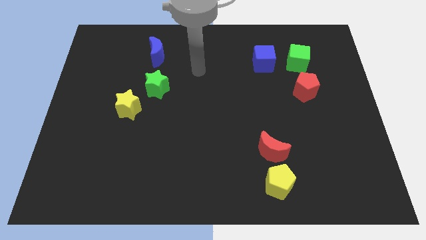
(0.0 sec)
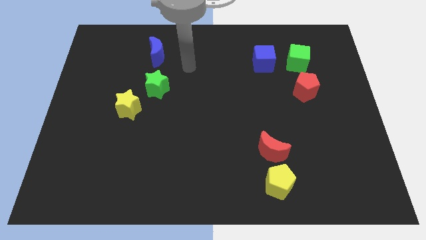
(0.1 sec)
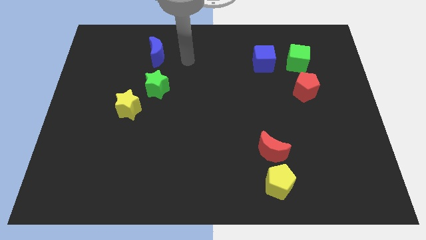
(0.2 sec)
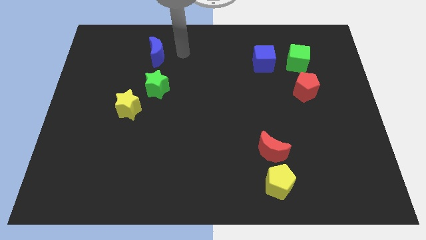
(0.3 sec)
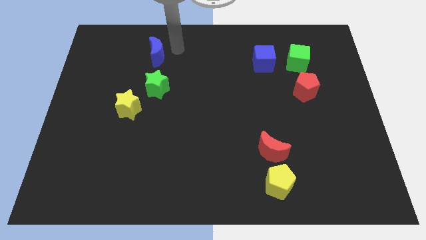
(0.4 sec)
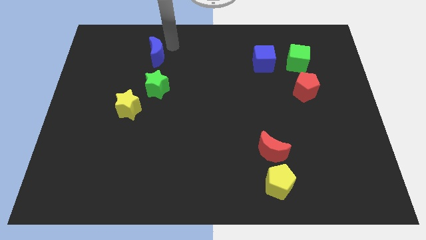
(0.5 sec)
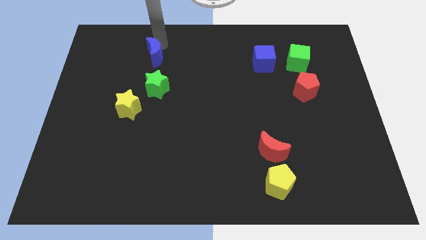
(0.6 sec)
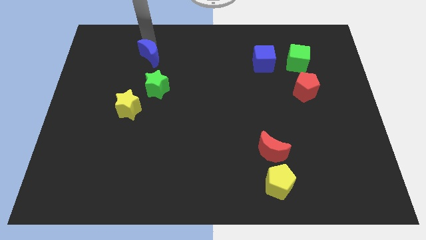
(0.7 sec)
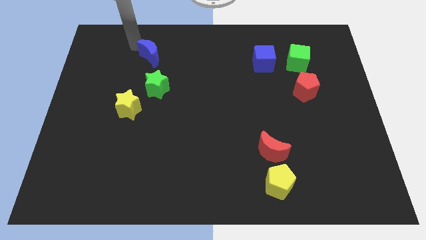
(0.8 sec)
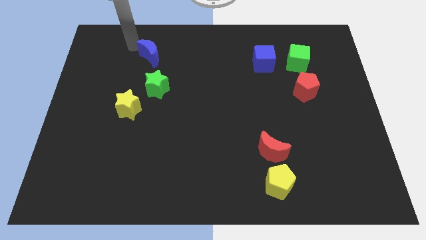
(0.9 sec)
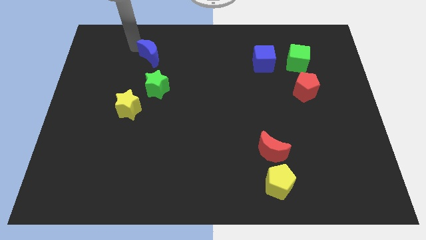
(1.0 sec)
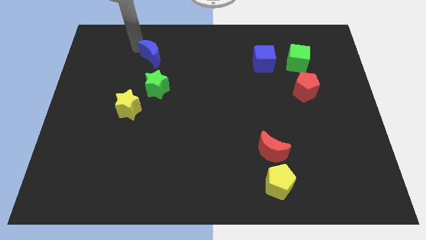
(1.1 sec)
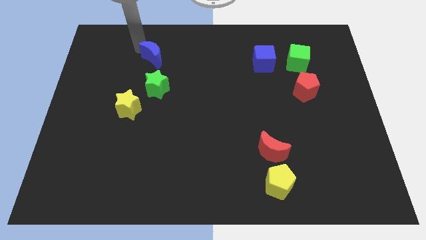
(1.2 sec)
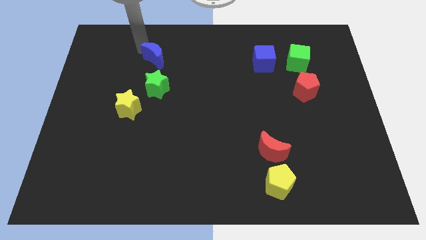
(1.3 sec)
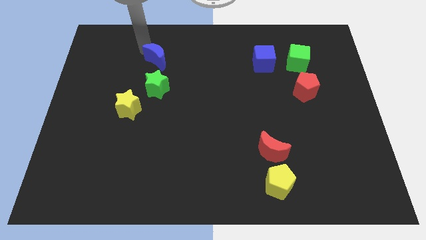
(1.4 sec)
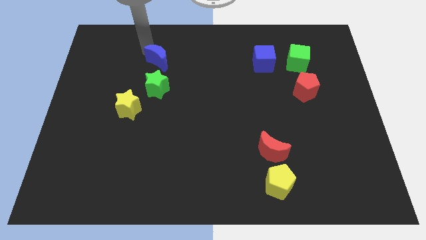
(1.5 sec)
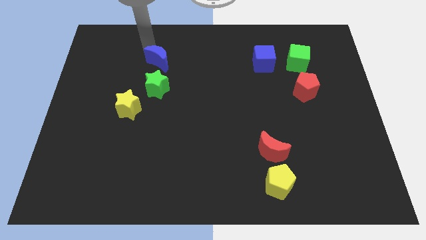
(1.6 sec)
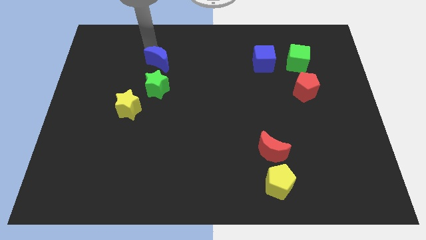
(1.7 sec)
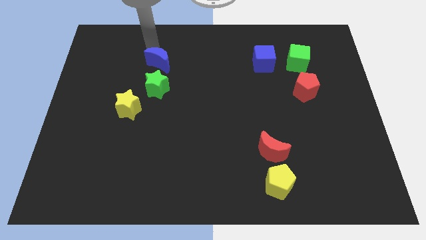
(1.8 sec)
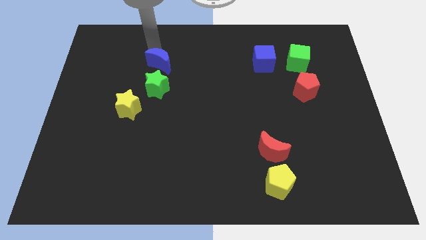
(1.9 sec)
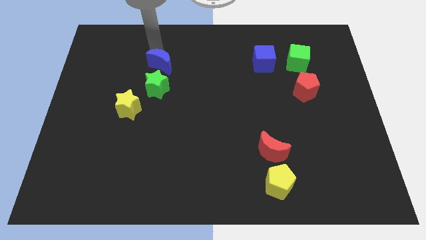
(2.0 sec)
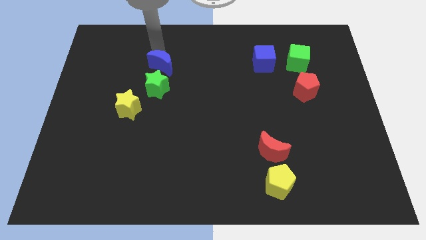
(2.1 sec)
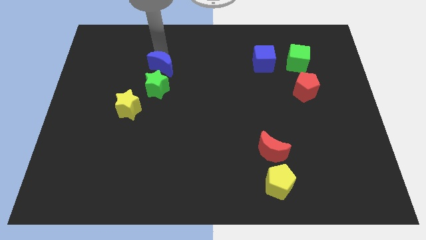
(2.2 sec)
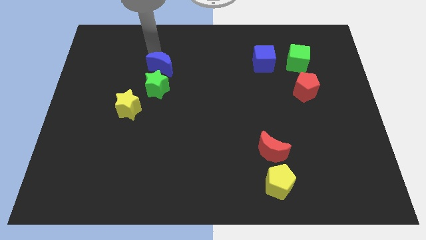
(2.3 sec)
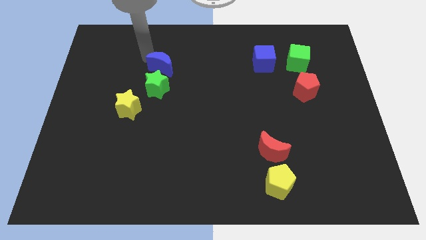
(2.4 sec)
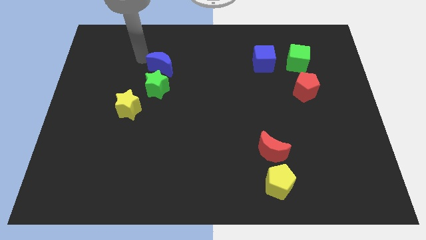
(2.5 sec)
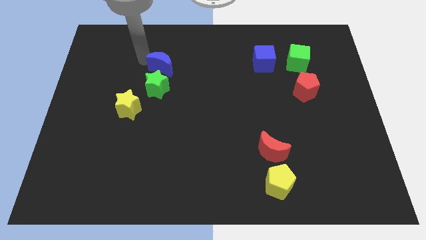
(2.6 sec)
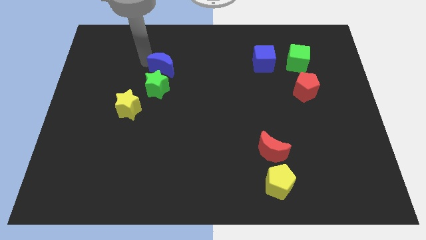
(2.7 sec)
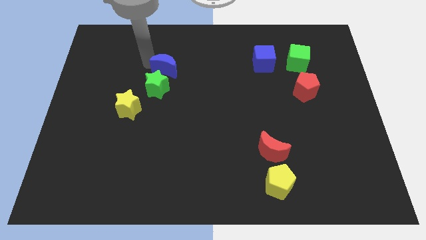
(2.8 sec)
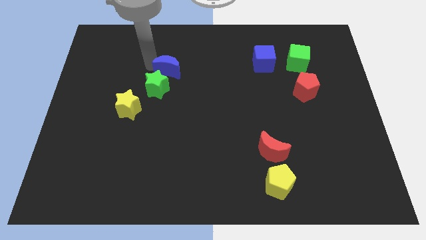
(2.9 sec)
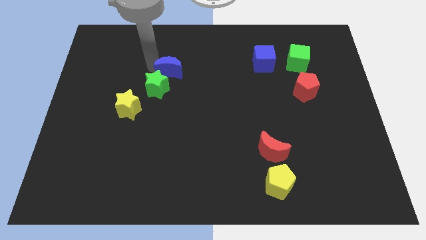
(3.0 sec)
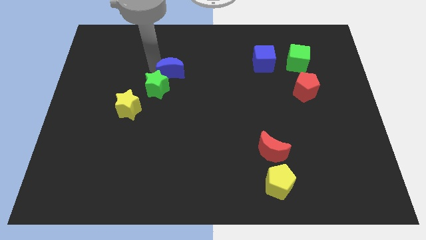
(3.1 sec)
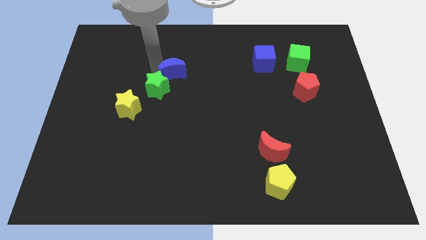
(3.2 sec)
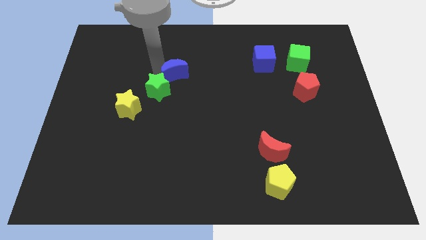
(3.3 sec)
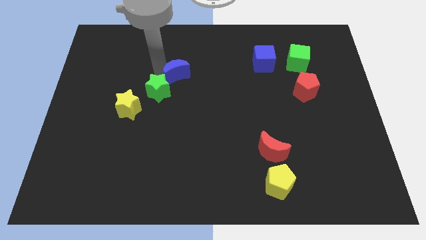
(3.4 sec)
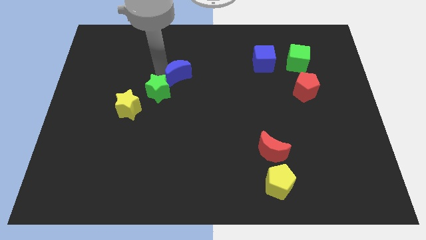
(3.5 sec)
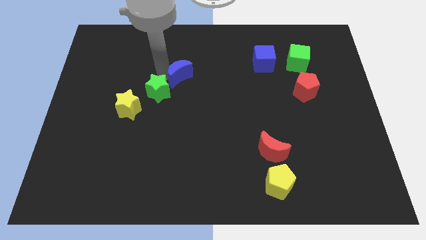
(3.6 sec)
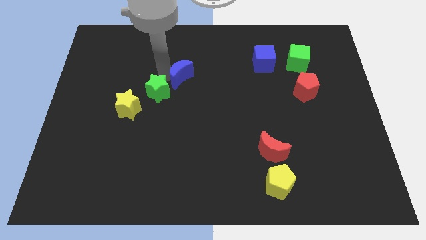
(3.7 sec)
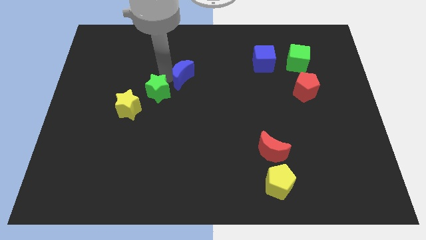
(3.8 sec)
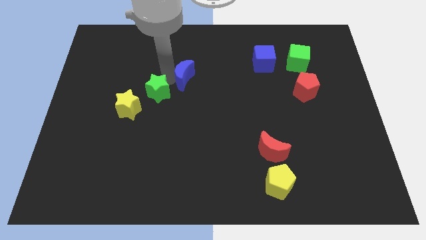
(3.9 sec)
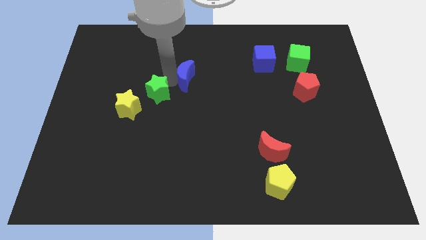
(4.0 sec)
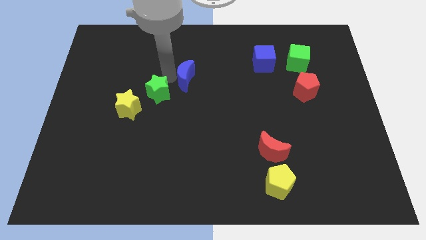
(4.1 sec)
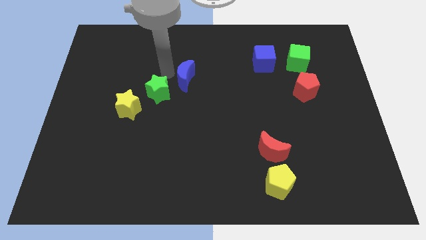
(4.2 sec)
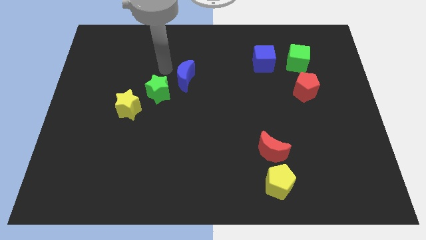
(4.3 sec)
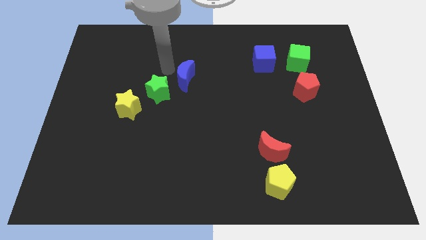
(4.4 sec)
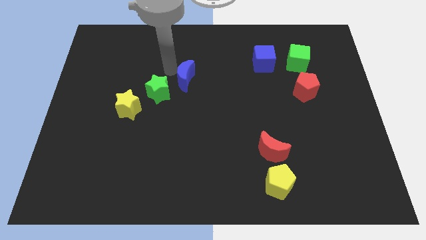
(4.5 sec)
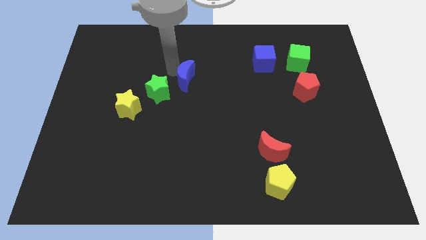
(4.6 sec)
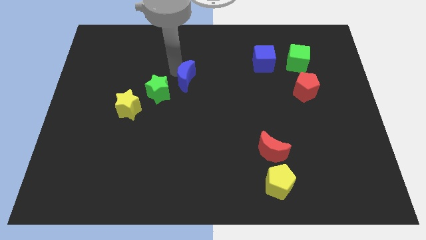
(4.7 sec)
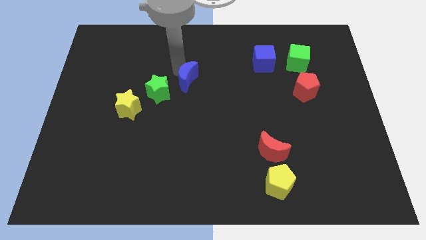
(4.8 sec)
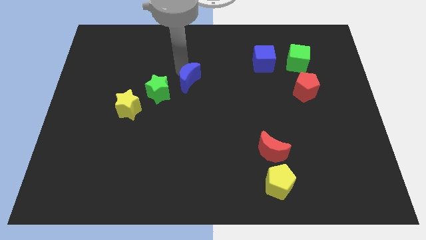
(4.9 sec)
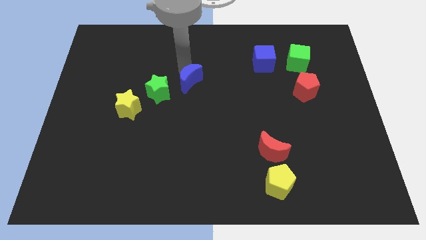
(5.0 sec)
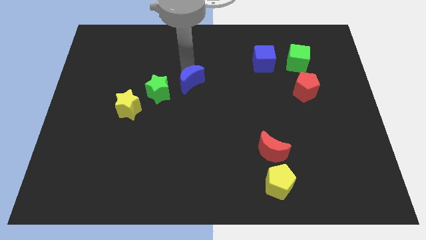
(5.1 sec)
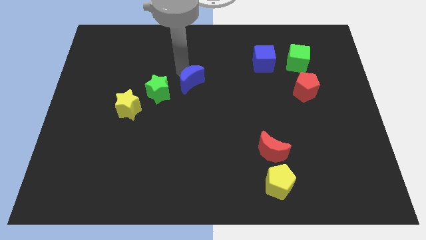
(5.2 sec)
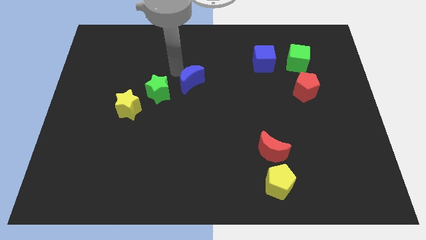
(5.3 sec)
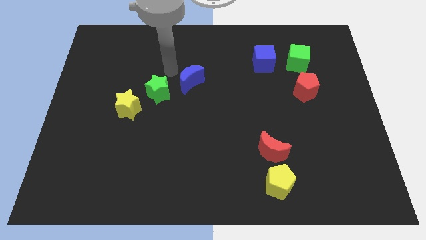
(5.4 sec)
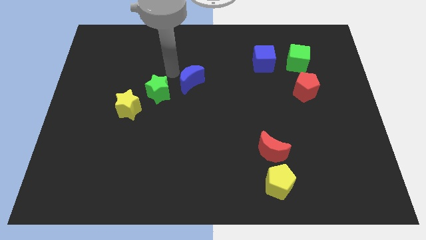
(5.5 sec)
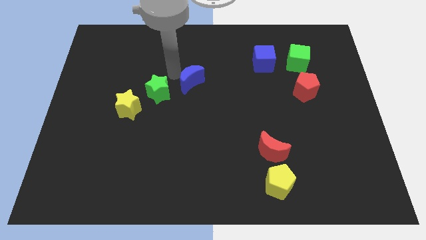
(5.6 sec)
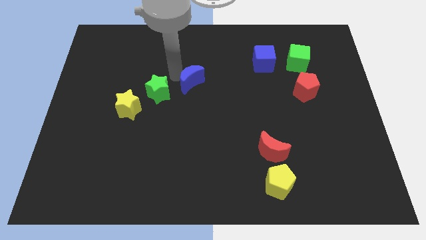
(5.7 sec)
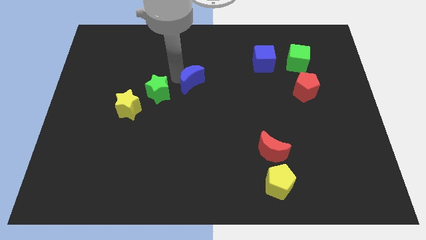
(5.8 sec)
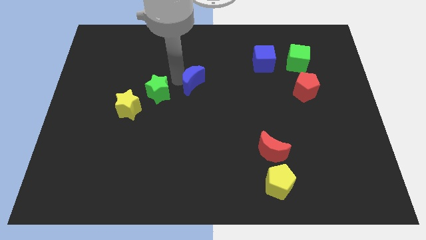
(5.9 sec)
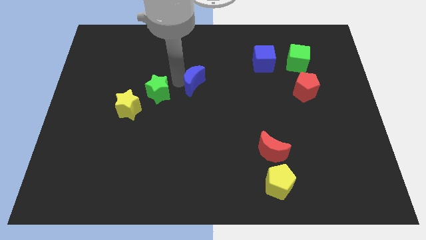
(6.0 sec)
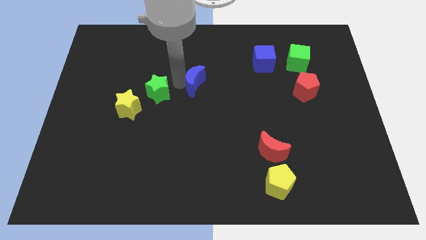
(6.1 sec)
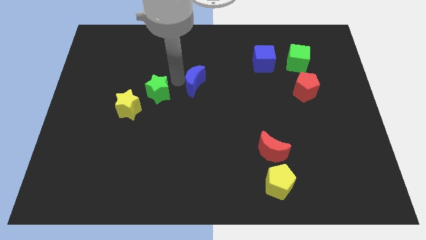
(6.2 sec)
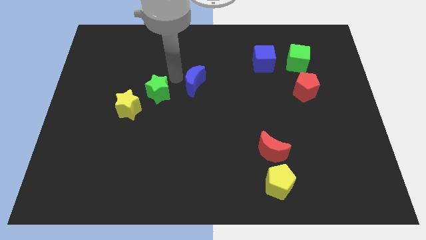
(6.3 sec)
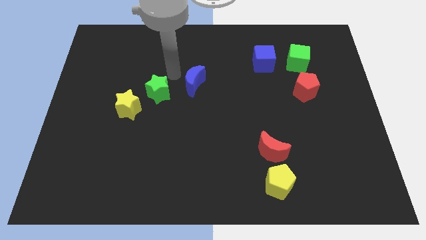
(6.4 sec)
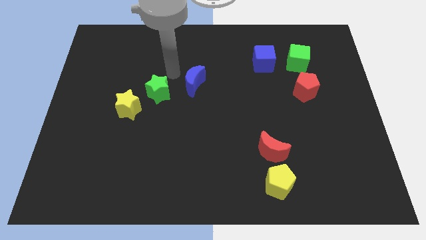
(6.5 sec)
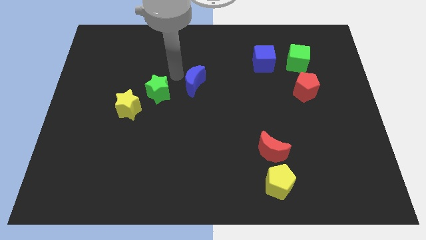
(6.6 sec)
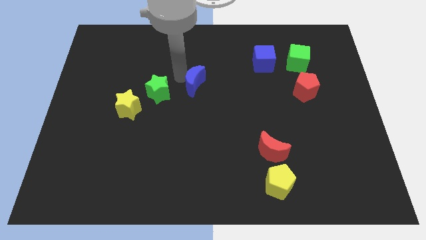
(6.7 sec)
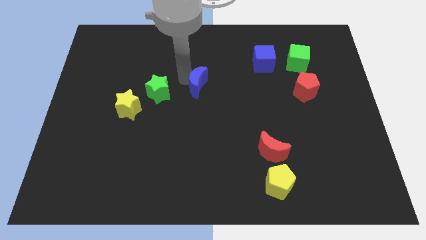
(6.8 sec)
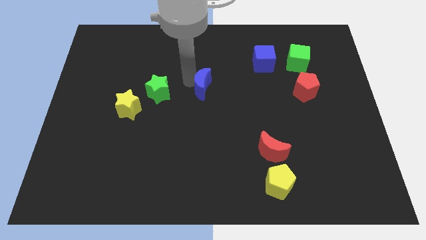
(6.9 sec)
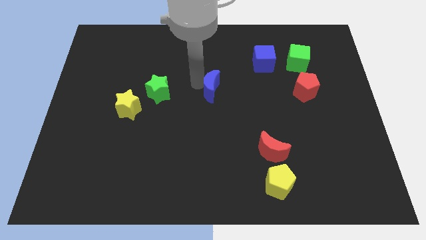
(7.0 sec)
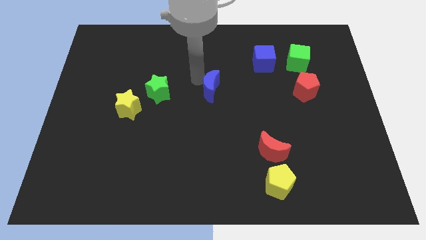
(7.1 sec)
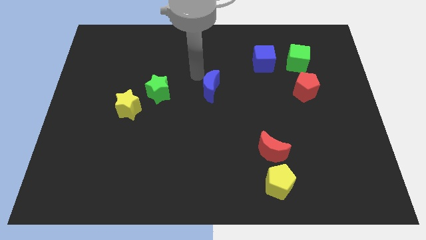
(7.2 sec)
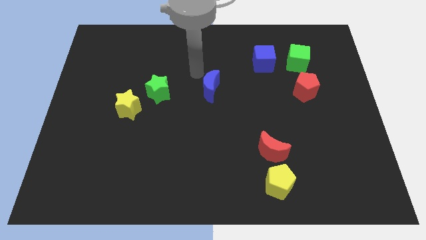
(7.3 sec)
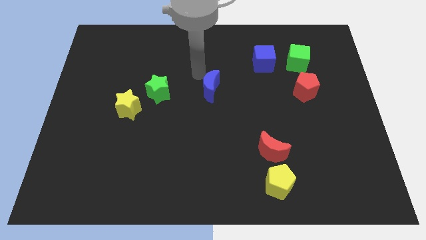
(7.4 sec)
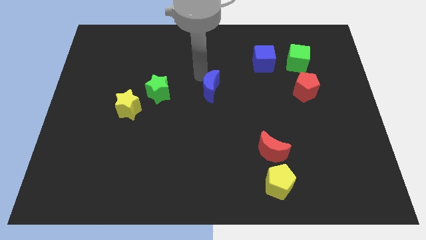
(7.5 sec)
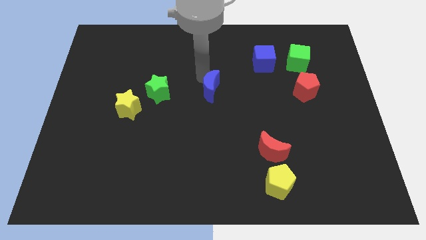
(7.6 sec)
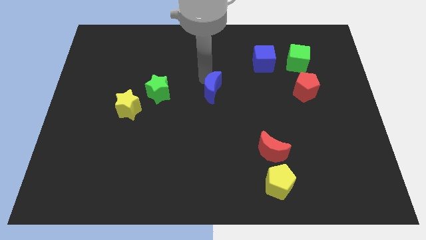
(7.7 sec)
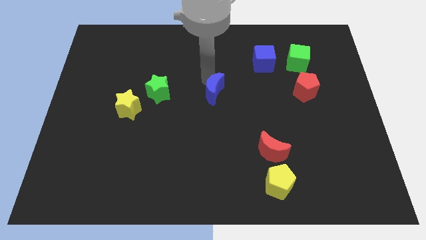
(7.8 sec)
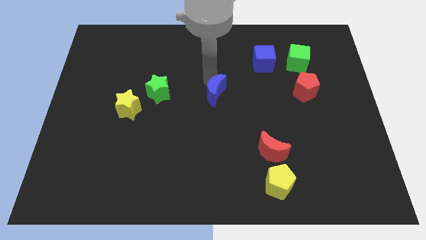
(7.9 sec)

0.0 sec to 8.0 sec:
move the blue moon downwards and right diagonally

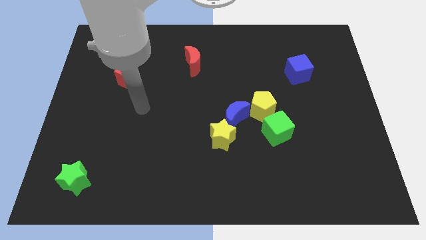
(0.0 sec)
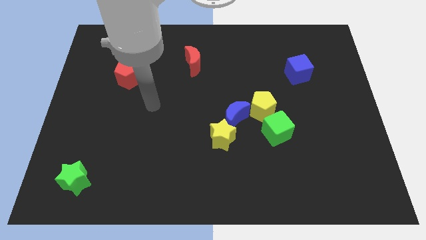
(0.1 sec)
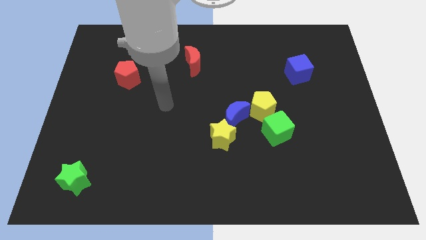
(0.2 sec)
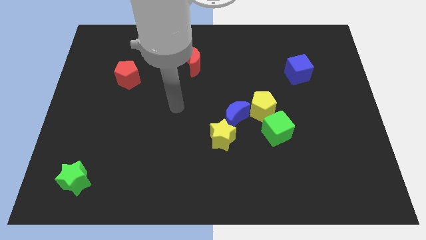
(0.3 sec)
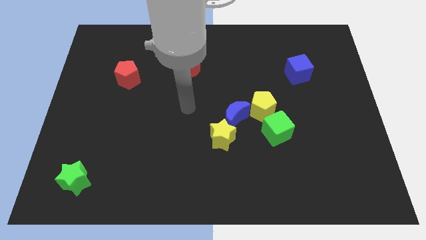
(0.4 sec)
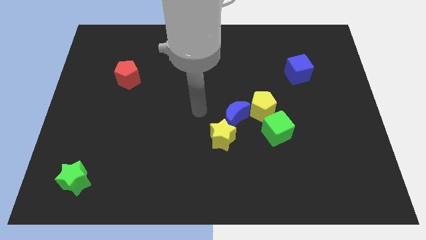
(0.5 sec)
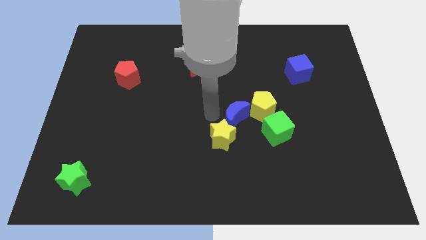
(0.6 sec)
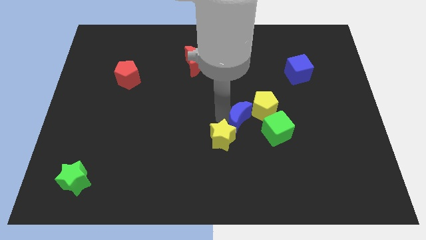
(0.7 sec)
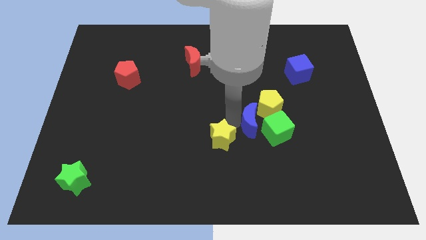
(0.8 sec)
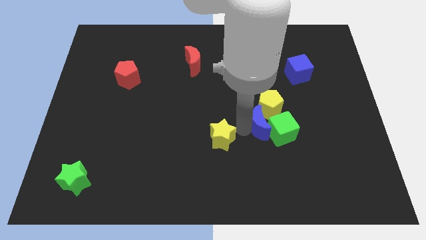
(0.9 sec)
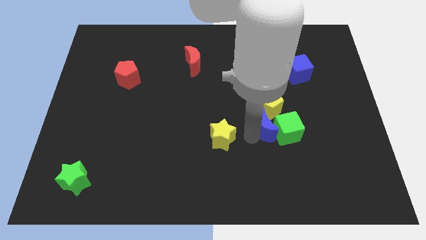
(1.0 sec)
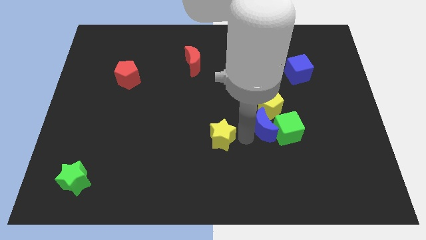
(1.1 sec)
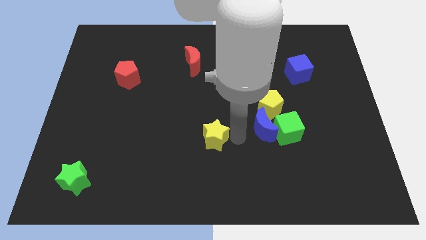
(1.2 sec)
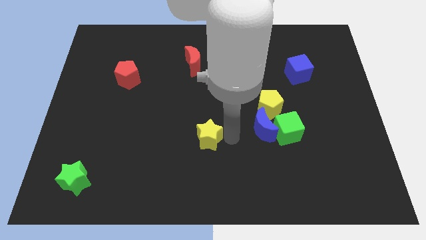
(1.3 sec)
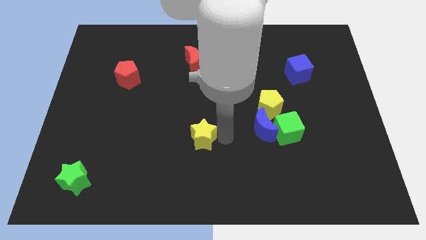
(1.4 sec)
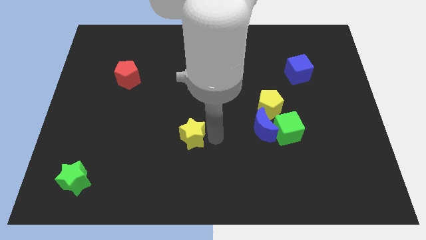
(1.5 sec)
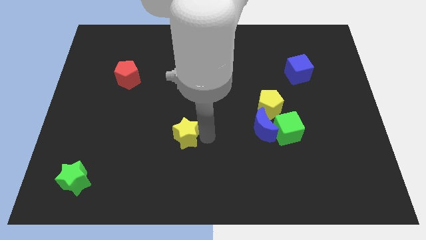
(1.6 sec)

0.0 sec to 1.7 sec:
slide the yellow star to the left a bit
